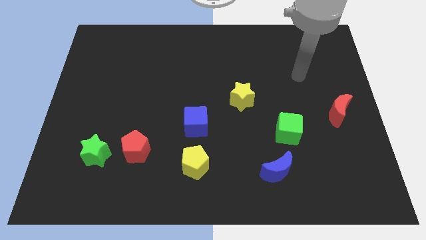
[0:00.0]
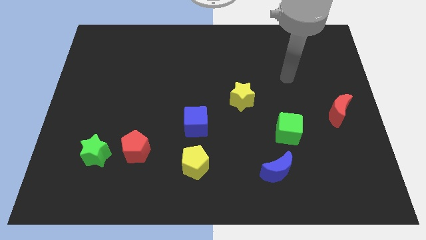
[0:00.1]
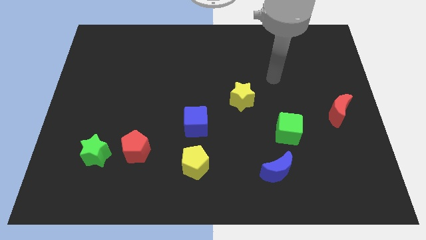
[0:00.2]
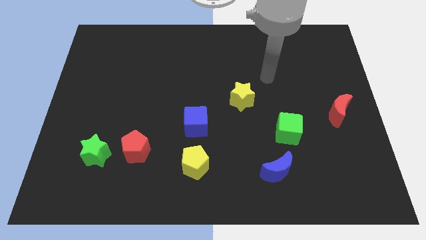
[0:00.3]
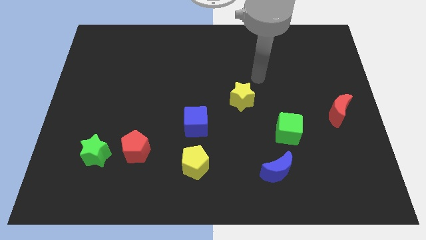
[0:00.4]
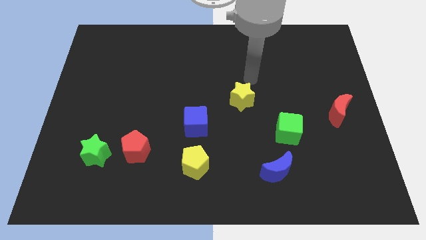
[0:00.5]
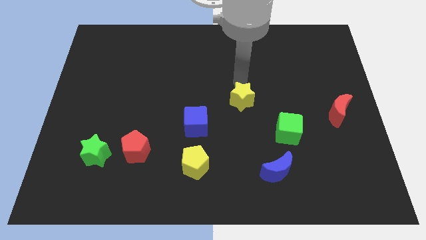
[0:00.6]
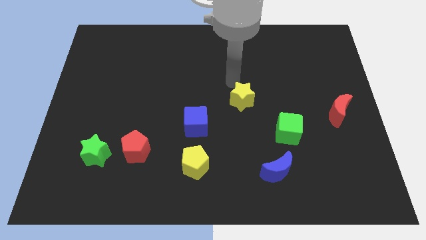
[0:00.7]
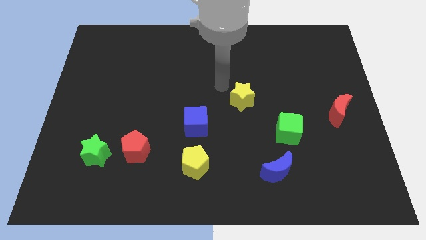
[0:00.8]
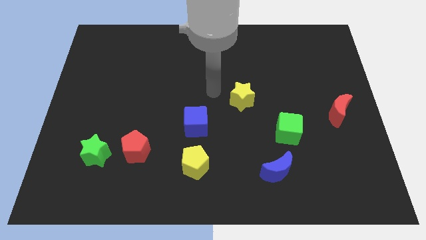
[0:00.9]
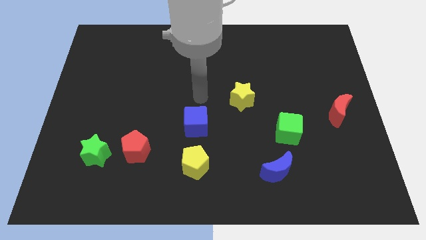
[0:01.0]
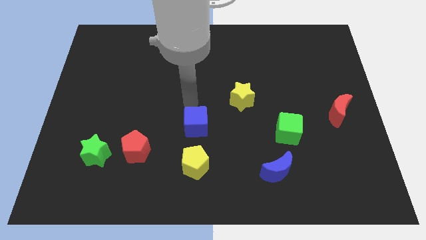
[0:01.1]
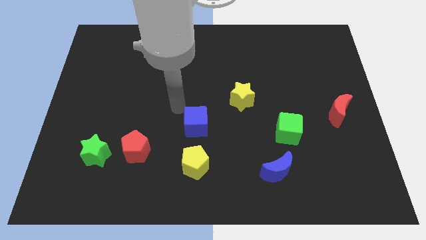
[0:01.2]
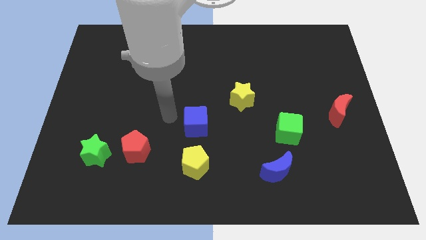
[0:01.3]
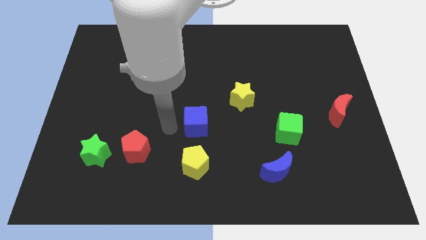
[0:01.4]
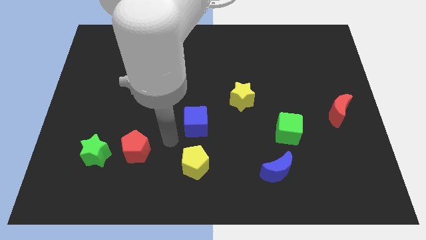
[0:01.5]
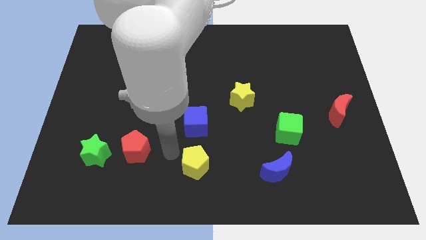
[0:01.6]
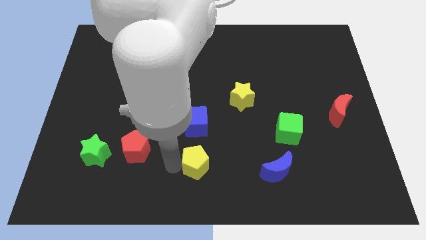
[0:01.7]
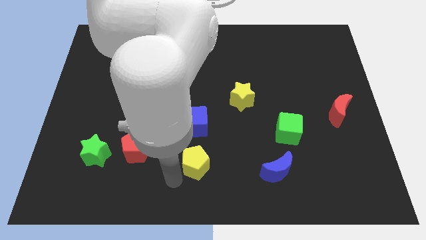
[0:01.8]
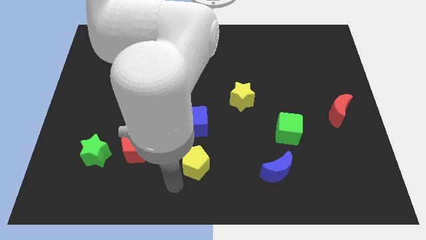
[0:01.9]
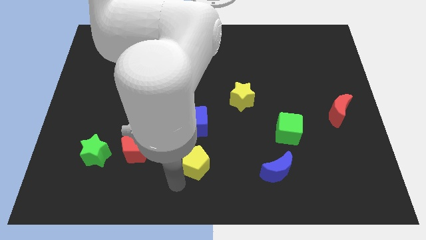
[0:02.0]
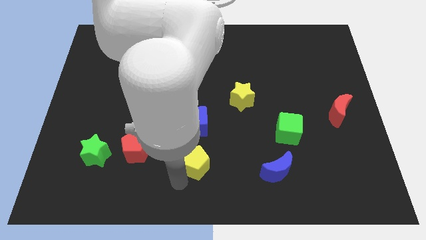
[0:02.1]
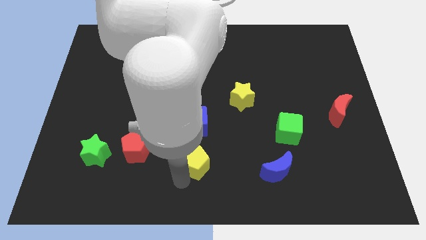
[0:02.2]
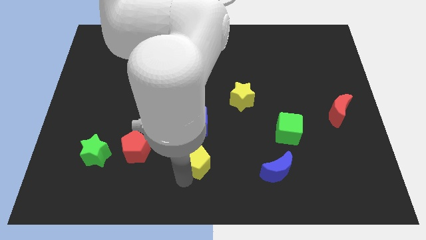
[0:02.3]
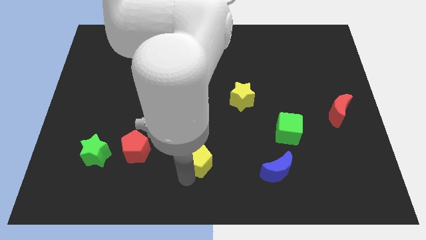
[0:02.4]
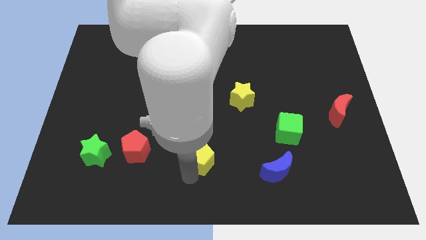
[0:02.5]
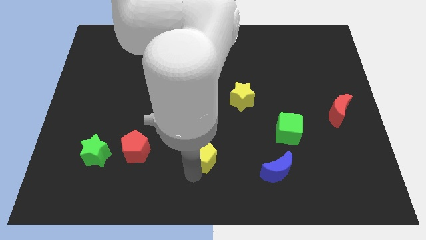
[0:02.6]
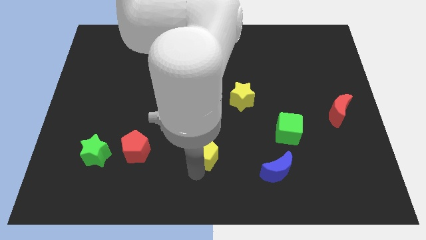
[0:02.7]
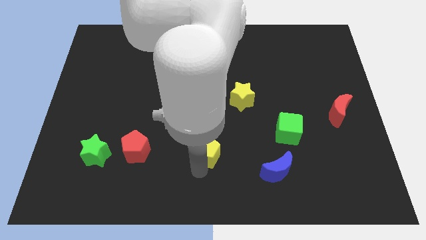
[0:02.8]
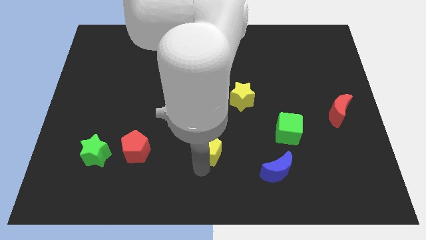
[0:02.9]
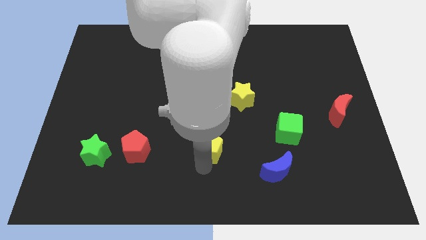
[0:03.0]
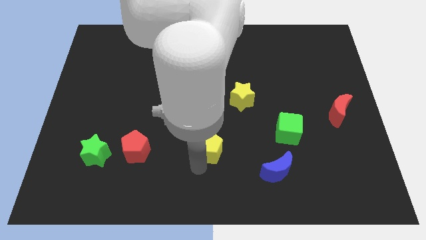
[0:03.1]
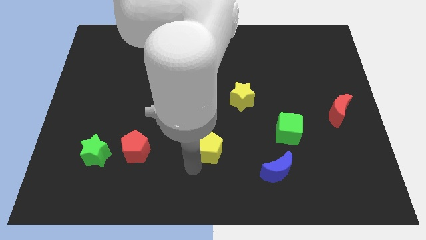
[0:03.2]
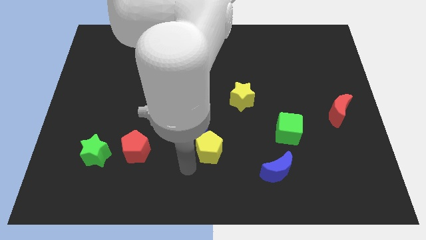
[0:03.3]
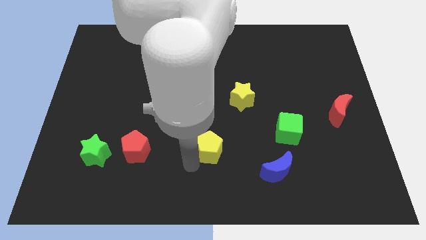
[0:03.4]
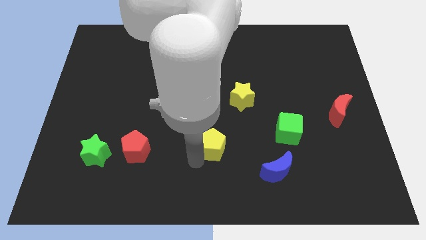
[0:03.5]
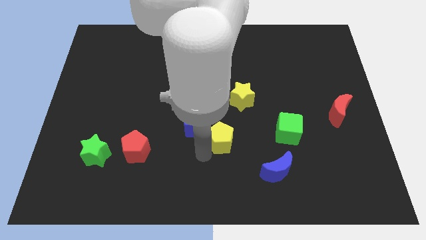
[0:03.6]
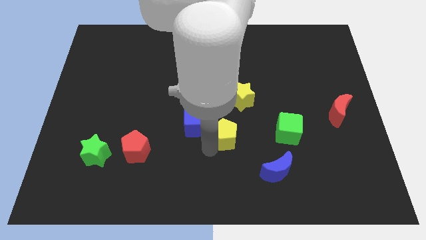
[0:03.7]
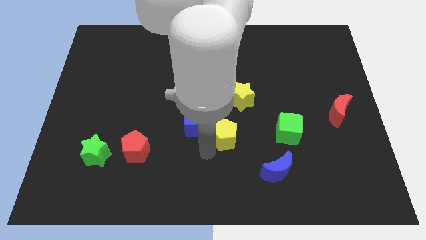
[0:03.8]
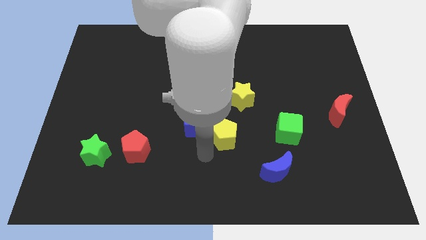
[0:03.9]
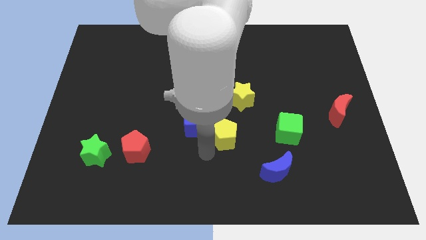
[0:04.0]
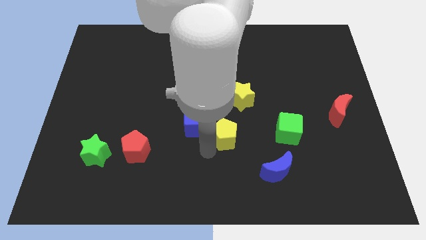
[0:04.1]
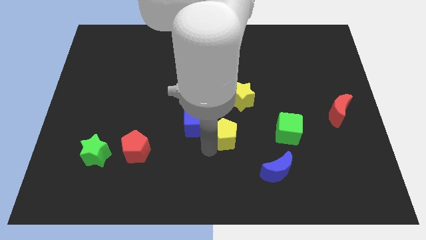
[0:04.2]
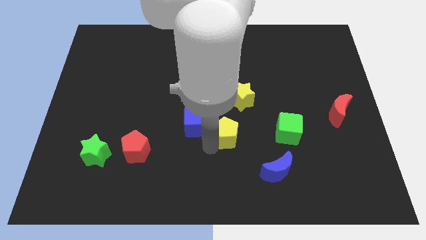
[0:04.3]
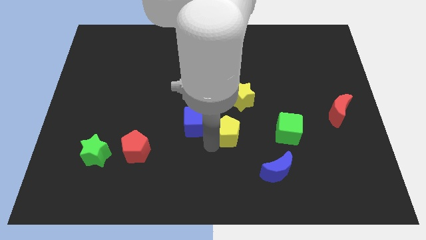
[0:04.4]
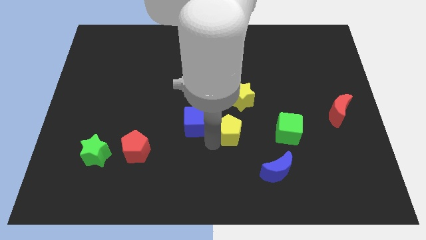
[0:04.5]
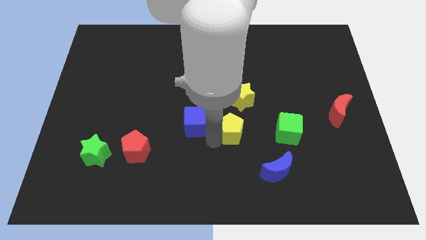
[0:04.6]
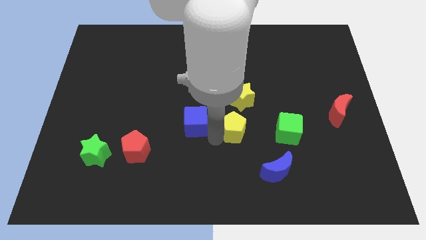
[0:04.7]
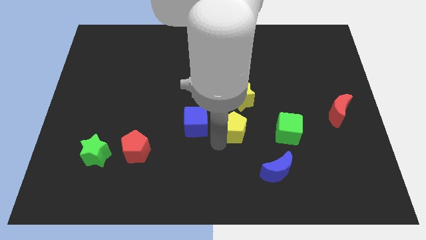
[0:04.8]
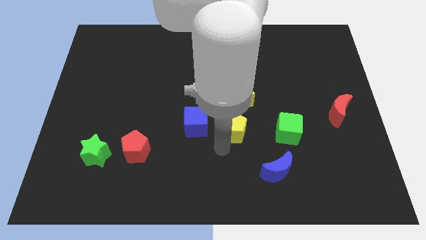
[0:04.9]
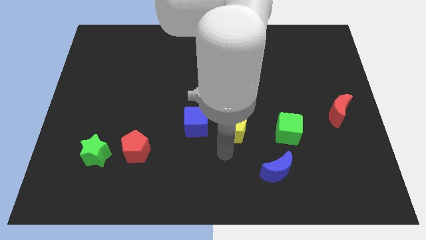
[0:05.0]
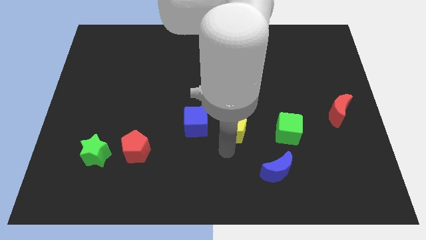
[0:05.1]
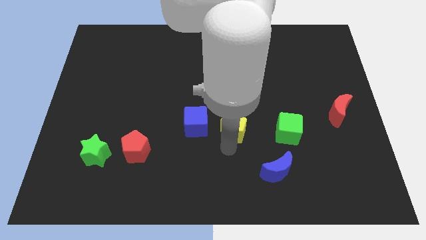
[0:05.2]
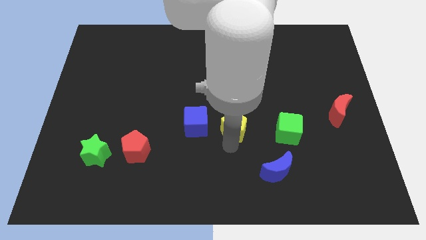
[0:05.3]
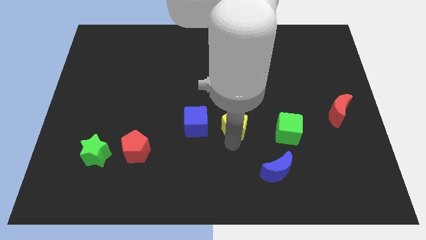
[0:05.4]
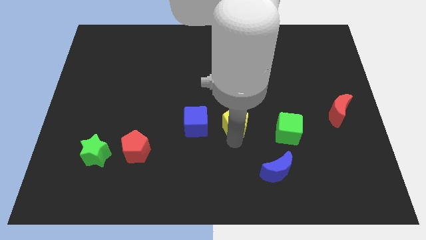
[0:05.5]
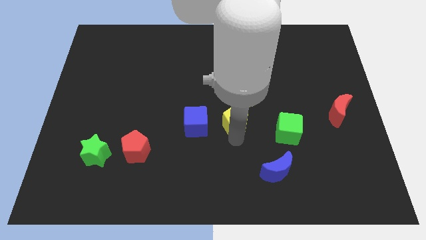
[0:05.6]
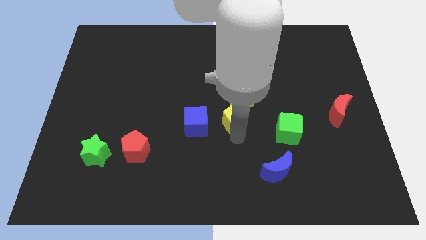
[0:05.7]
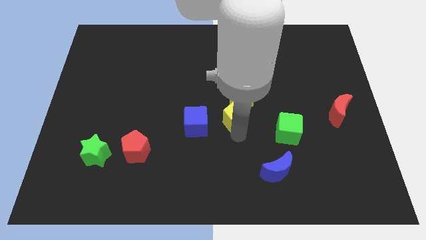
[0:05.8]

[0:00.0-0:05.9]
put the yellow pentagon towards the yellow star

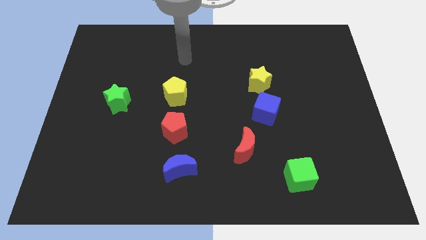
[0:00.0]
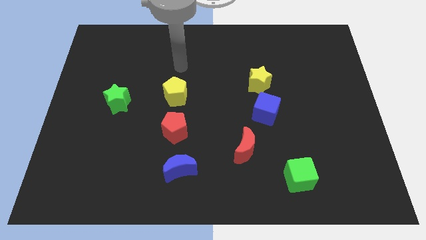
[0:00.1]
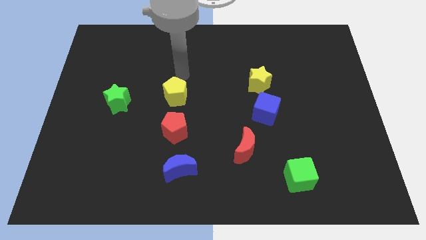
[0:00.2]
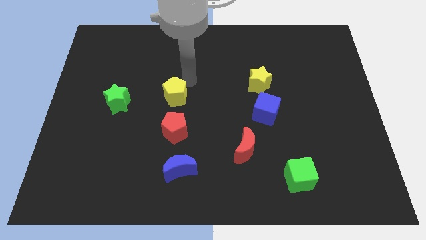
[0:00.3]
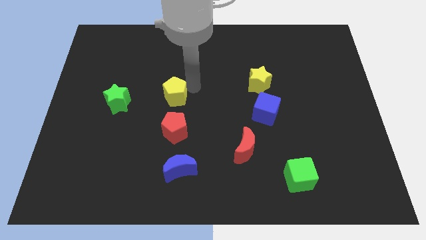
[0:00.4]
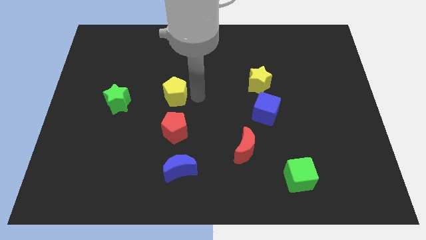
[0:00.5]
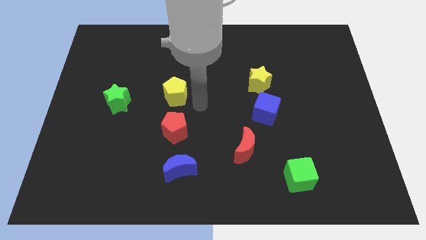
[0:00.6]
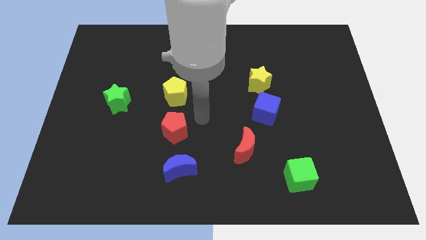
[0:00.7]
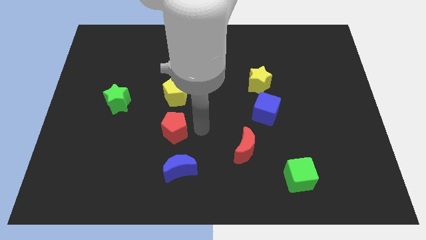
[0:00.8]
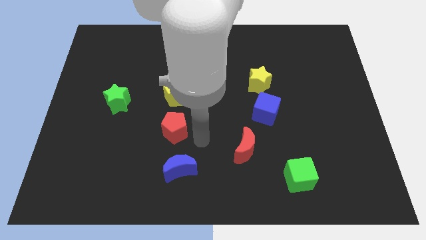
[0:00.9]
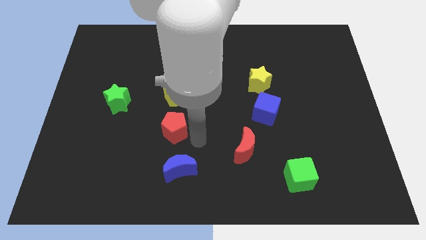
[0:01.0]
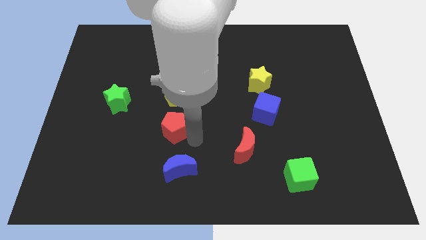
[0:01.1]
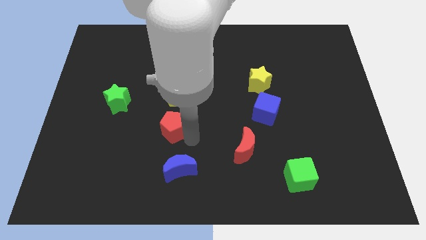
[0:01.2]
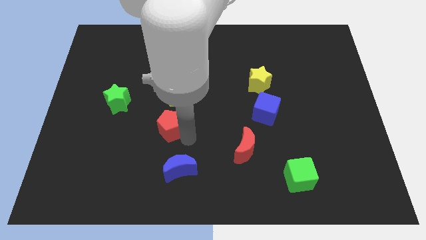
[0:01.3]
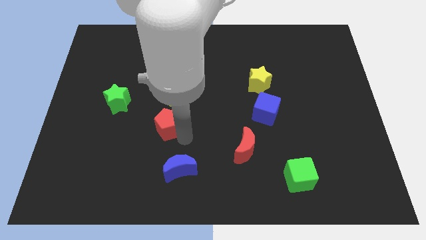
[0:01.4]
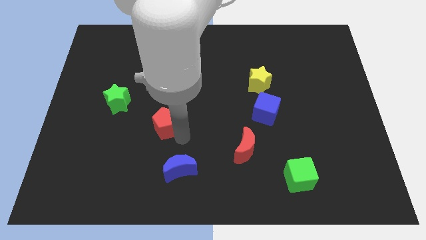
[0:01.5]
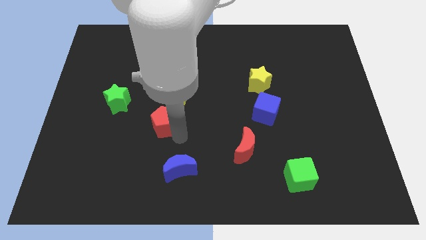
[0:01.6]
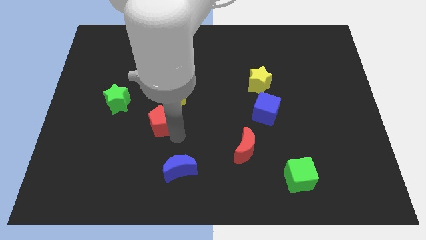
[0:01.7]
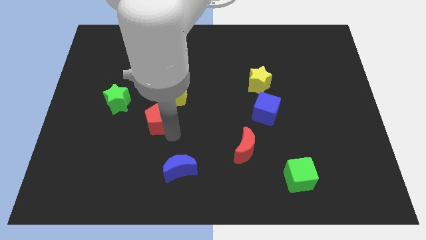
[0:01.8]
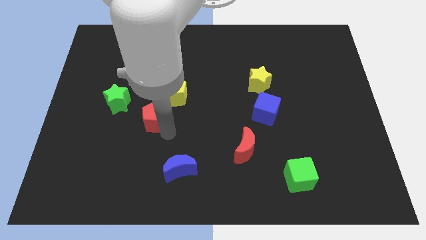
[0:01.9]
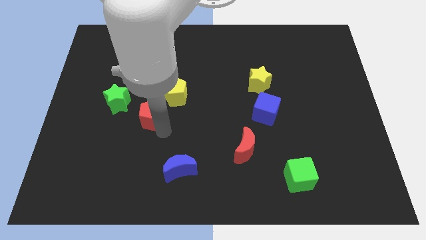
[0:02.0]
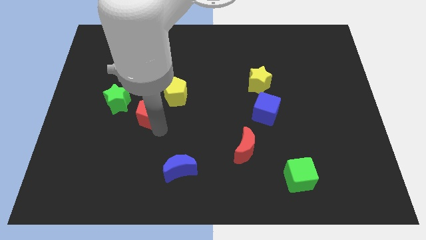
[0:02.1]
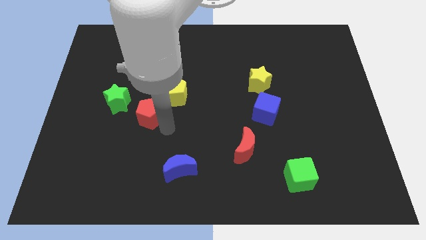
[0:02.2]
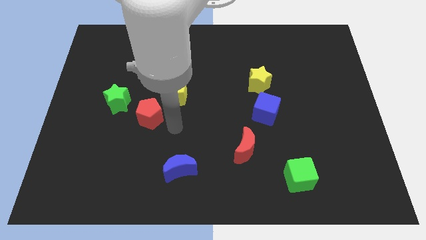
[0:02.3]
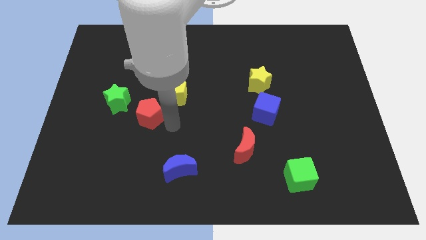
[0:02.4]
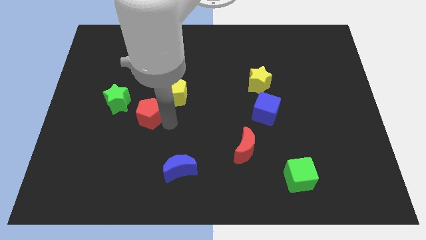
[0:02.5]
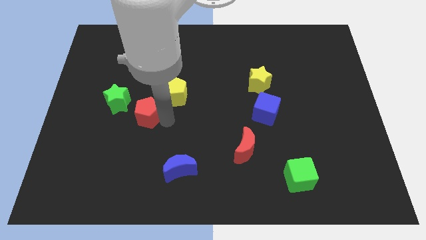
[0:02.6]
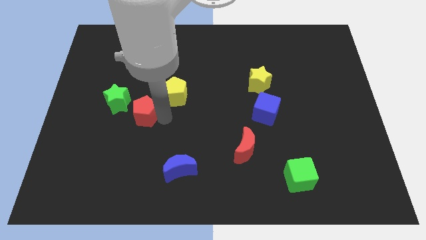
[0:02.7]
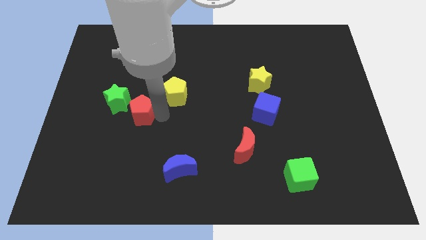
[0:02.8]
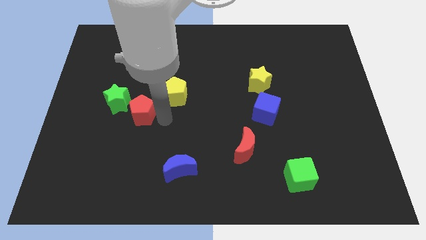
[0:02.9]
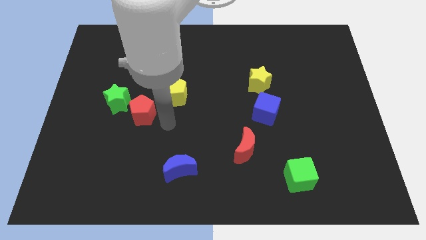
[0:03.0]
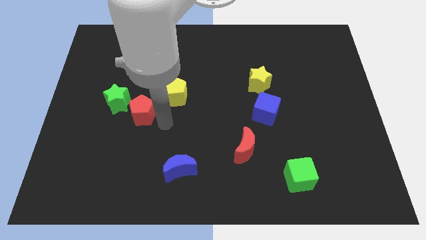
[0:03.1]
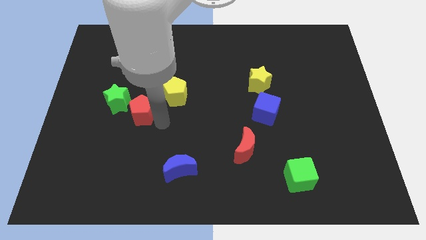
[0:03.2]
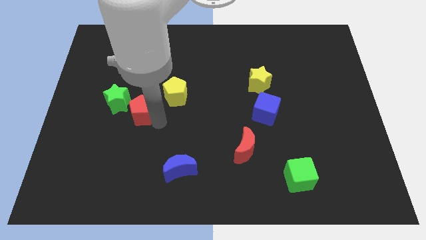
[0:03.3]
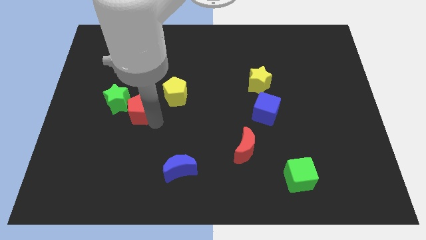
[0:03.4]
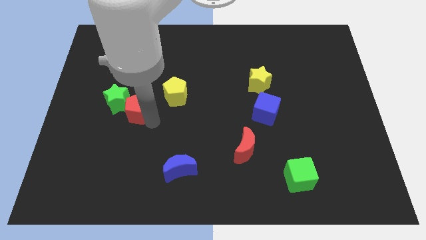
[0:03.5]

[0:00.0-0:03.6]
push the red pentagon towards the green star
